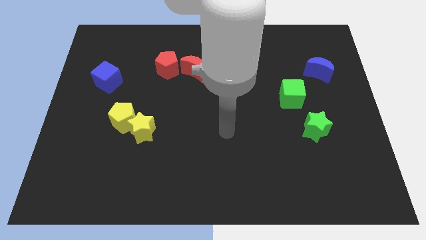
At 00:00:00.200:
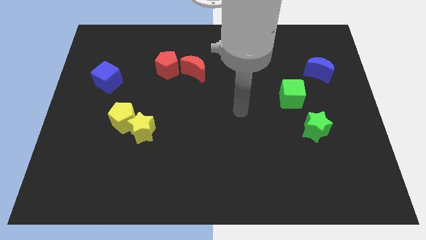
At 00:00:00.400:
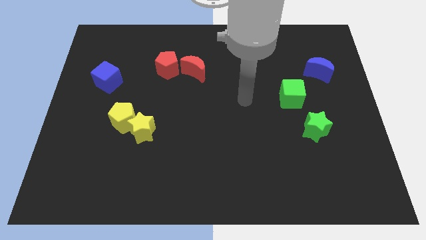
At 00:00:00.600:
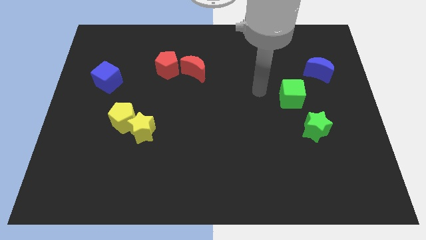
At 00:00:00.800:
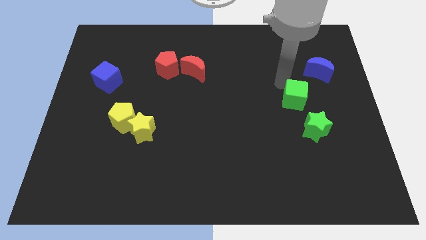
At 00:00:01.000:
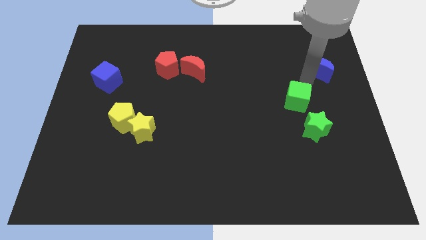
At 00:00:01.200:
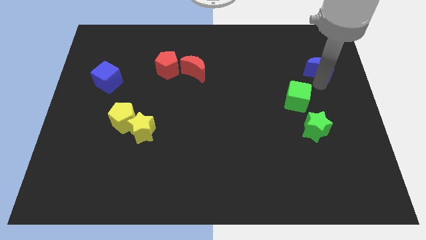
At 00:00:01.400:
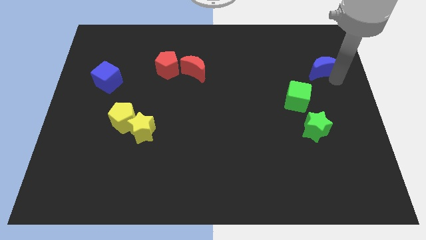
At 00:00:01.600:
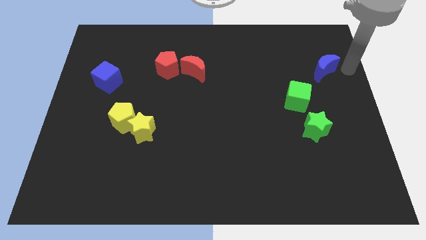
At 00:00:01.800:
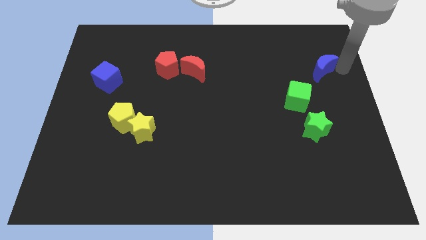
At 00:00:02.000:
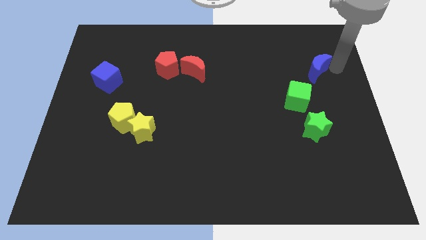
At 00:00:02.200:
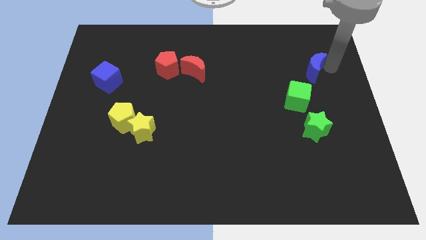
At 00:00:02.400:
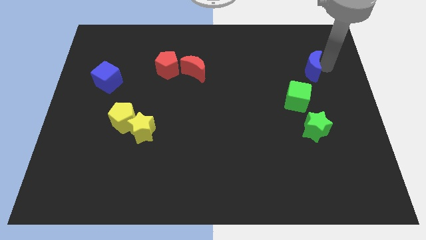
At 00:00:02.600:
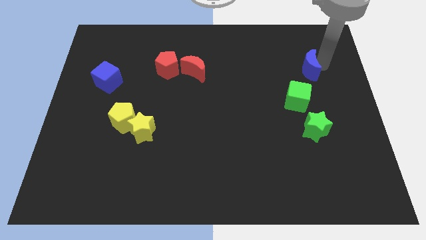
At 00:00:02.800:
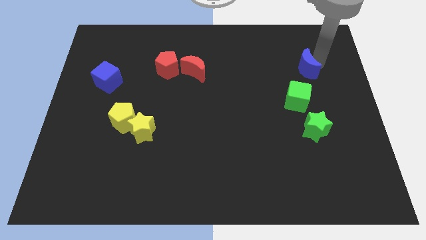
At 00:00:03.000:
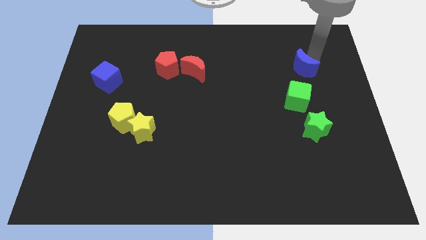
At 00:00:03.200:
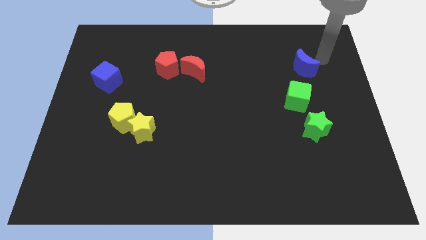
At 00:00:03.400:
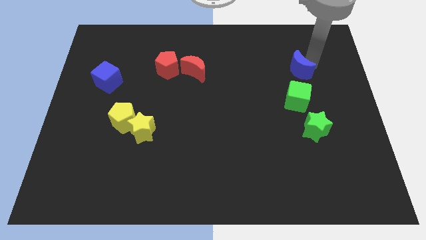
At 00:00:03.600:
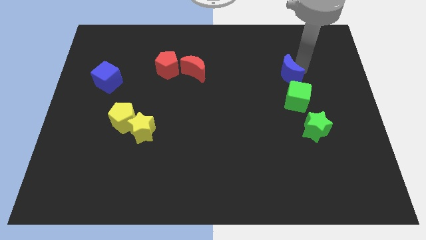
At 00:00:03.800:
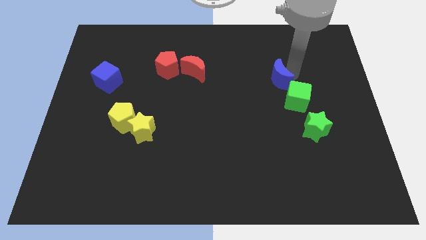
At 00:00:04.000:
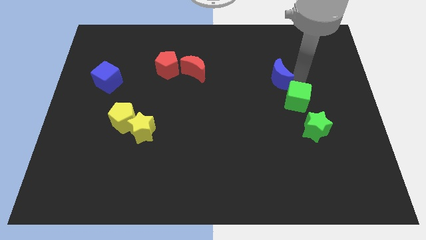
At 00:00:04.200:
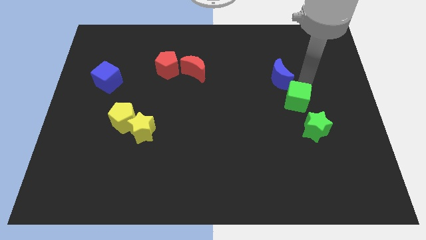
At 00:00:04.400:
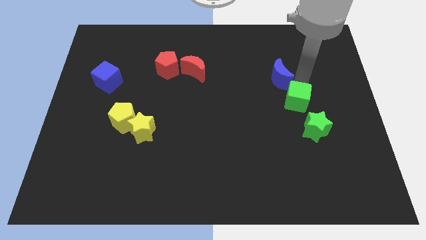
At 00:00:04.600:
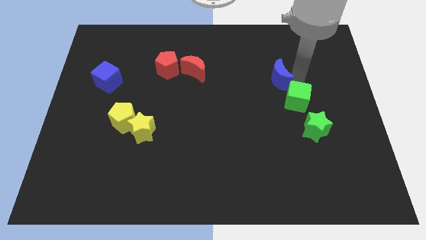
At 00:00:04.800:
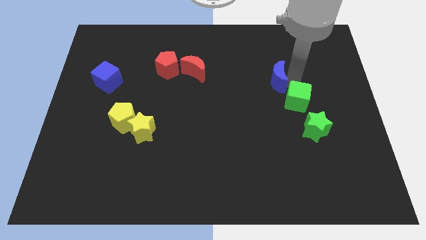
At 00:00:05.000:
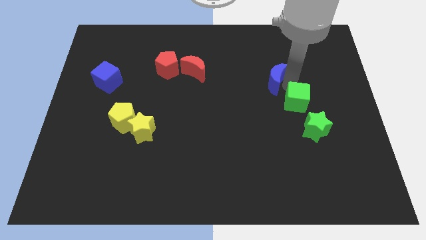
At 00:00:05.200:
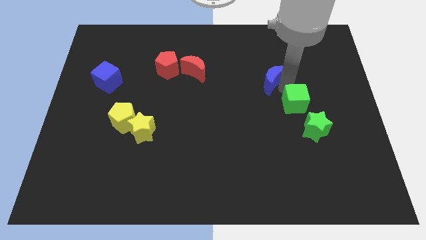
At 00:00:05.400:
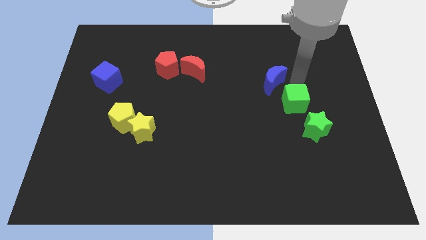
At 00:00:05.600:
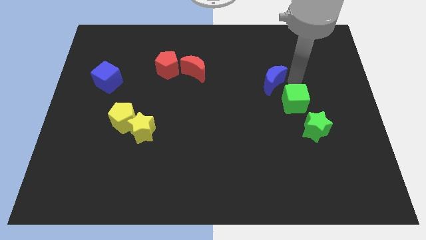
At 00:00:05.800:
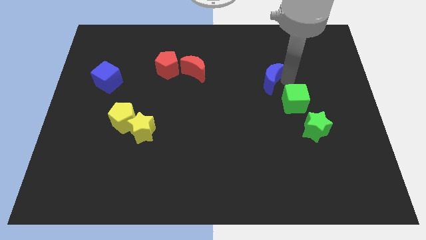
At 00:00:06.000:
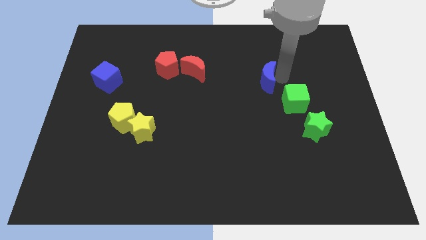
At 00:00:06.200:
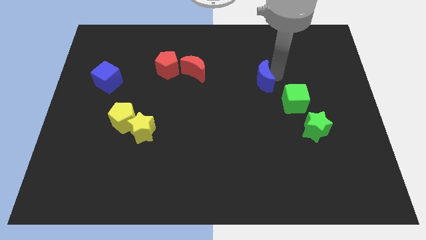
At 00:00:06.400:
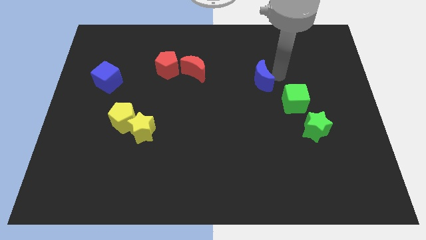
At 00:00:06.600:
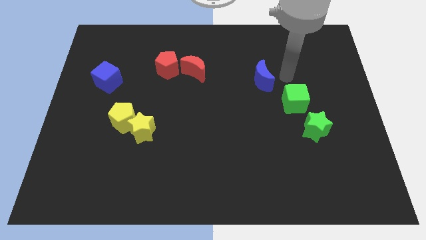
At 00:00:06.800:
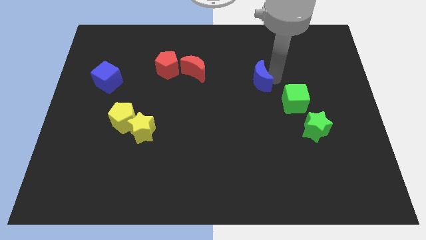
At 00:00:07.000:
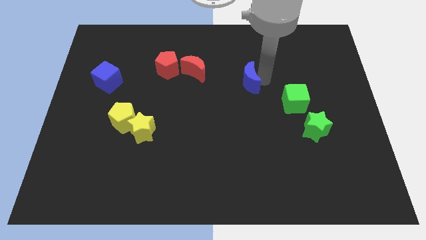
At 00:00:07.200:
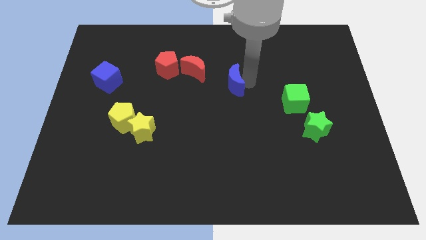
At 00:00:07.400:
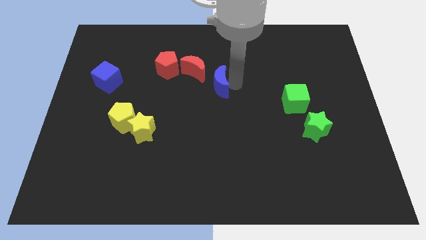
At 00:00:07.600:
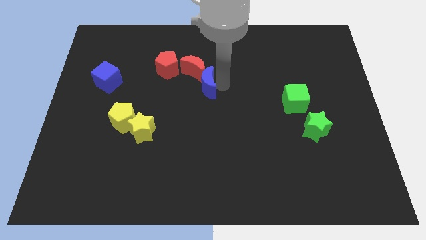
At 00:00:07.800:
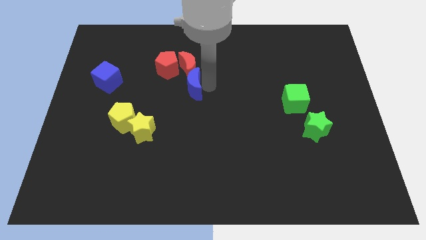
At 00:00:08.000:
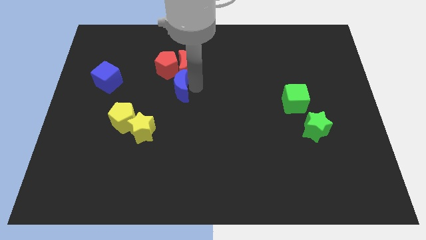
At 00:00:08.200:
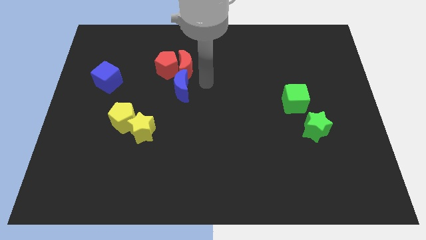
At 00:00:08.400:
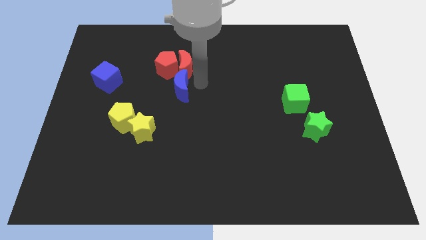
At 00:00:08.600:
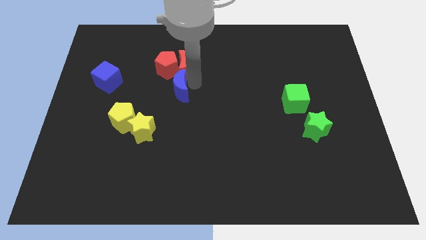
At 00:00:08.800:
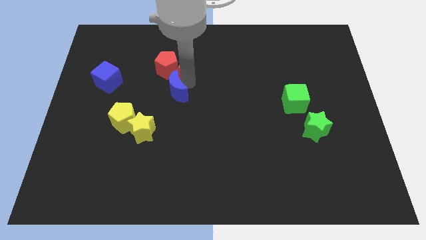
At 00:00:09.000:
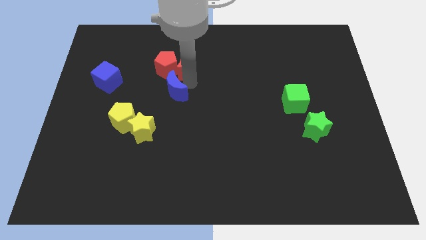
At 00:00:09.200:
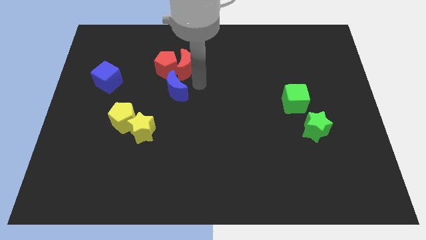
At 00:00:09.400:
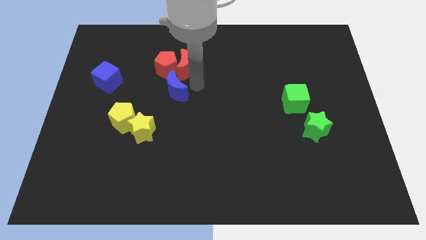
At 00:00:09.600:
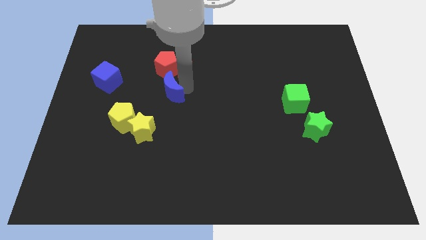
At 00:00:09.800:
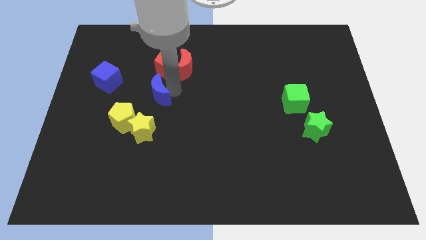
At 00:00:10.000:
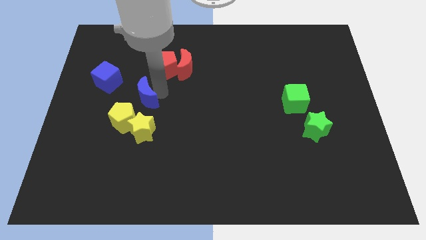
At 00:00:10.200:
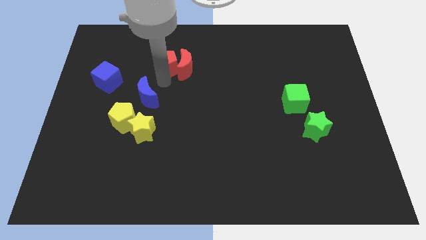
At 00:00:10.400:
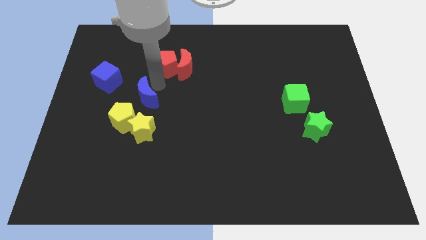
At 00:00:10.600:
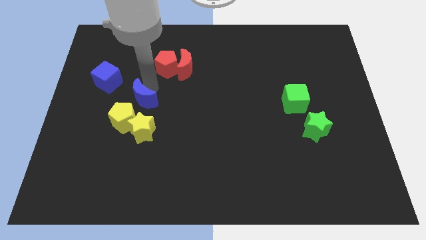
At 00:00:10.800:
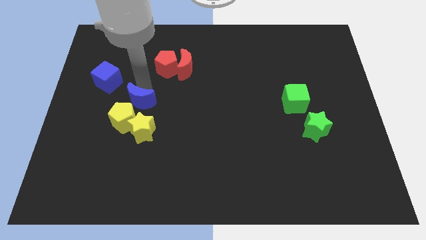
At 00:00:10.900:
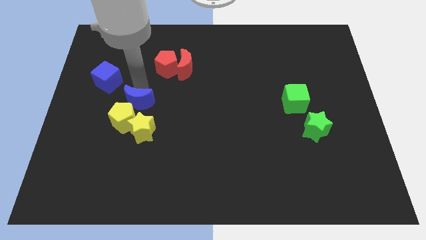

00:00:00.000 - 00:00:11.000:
slide the blue moon towards the yellow pentagon

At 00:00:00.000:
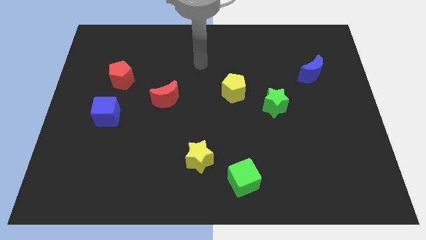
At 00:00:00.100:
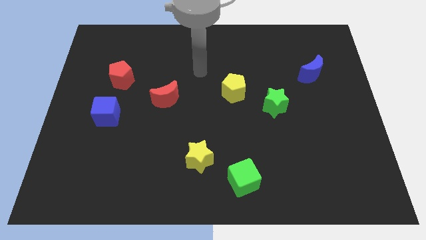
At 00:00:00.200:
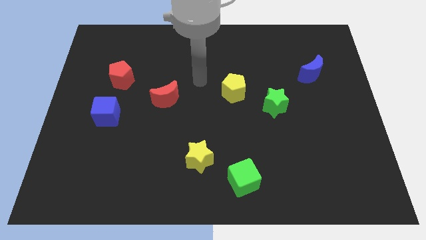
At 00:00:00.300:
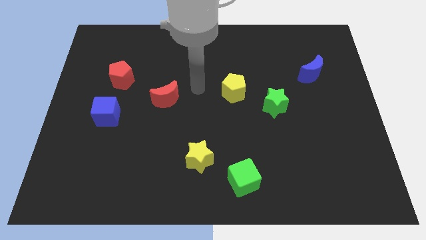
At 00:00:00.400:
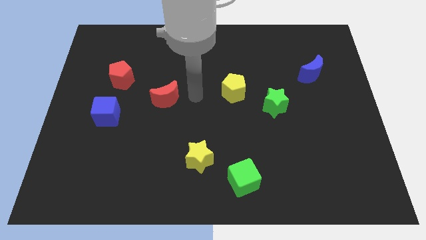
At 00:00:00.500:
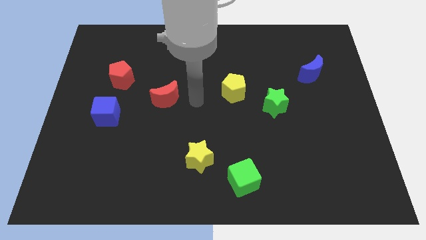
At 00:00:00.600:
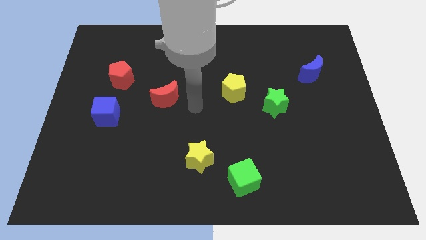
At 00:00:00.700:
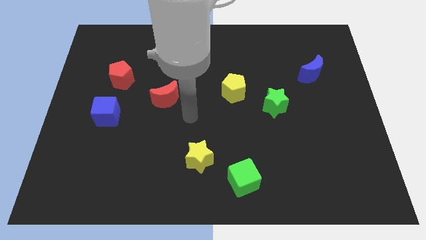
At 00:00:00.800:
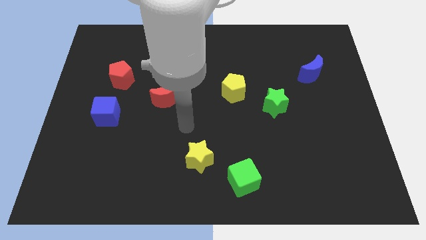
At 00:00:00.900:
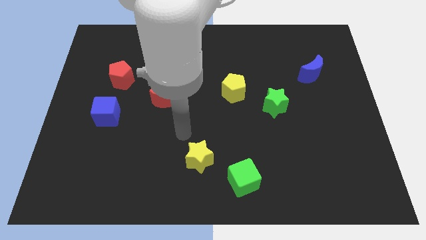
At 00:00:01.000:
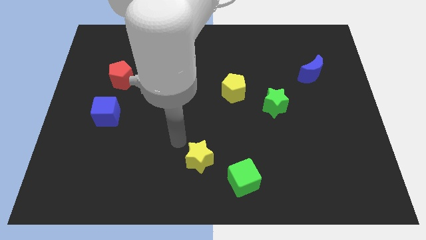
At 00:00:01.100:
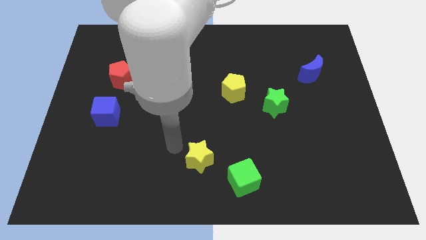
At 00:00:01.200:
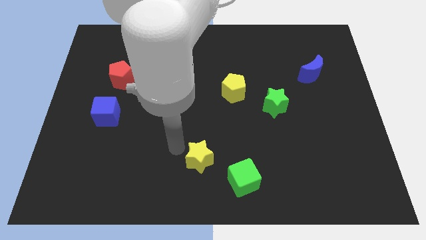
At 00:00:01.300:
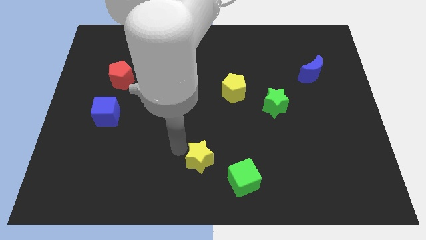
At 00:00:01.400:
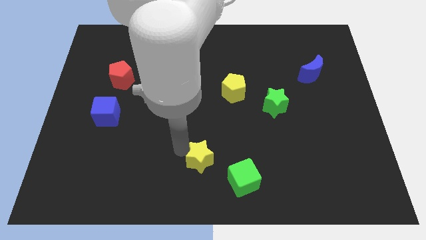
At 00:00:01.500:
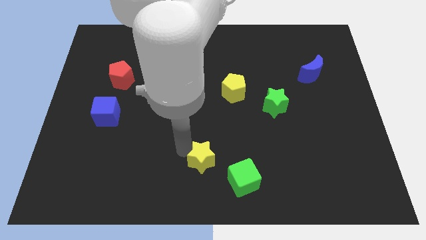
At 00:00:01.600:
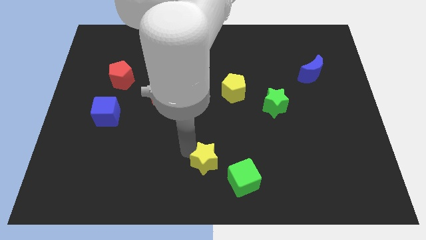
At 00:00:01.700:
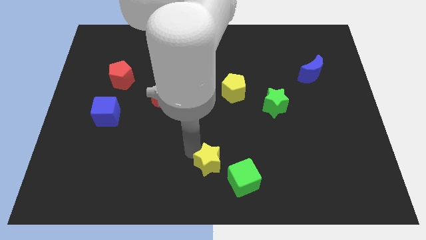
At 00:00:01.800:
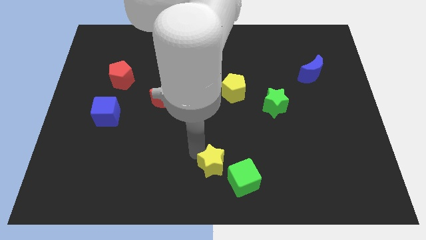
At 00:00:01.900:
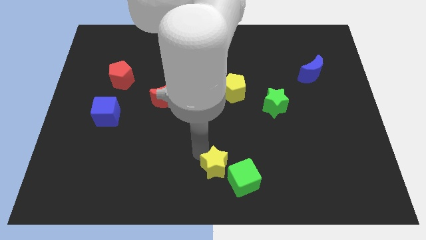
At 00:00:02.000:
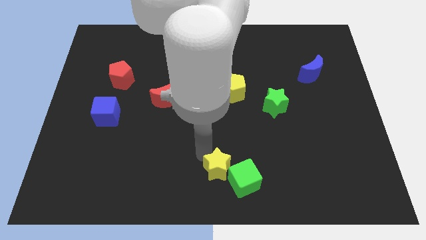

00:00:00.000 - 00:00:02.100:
slide the yellow star towards the green cube
